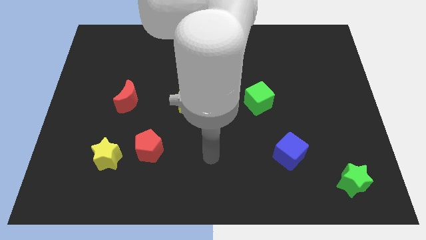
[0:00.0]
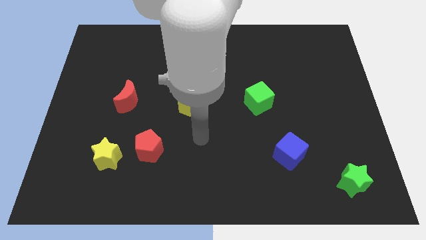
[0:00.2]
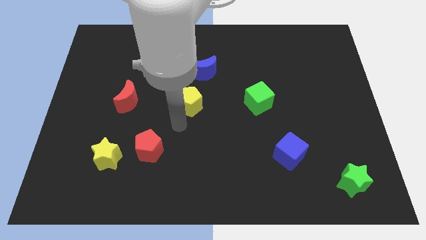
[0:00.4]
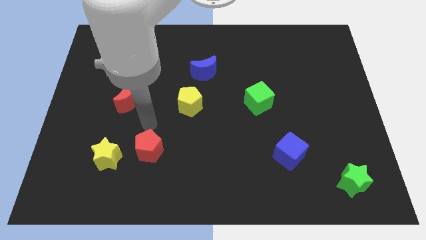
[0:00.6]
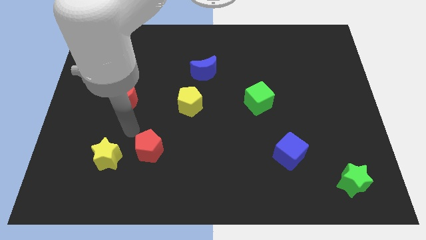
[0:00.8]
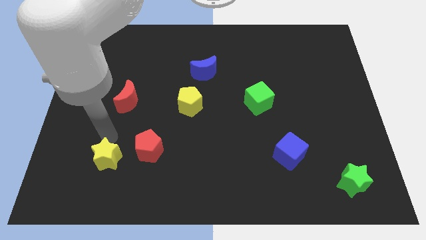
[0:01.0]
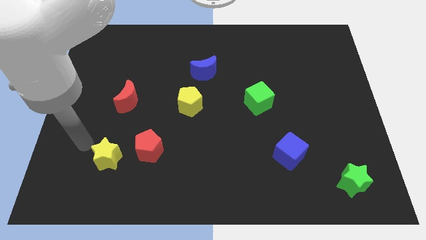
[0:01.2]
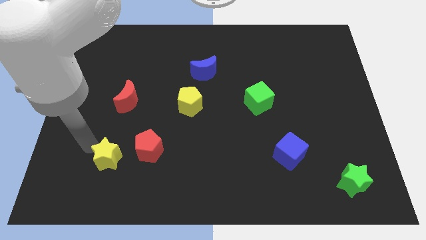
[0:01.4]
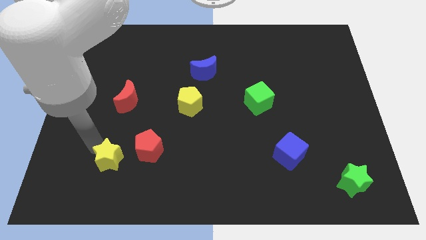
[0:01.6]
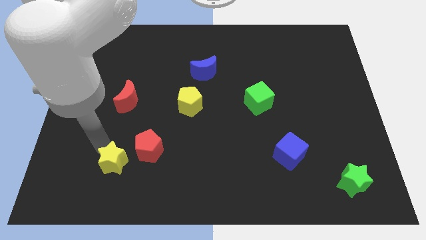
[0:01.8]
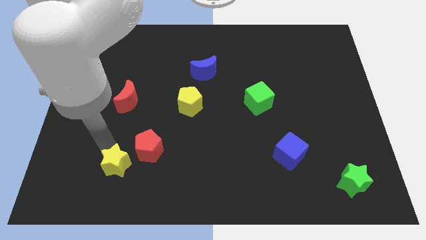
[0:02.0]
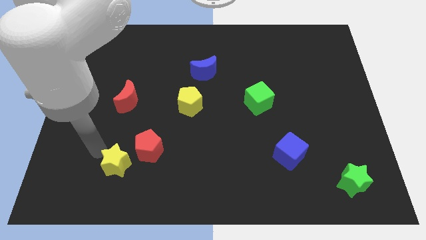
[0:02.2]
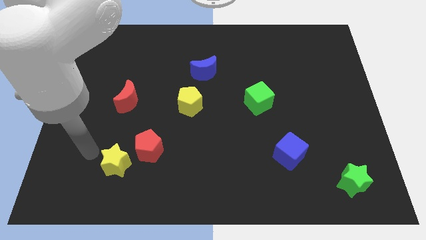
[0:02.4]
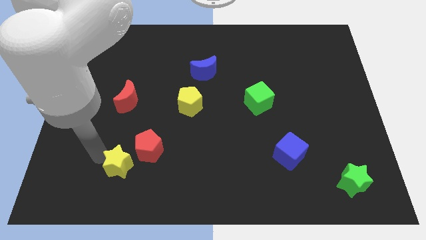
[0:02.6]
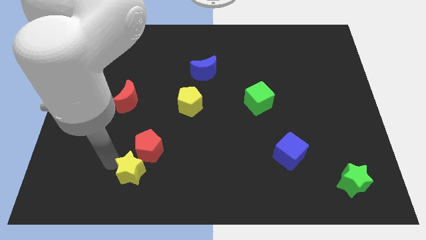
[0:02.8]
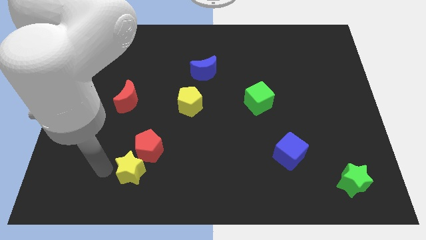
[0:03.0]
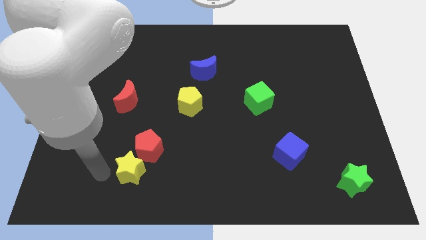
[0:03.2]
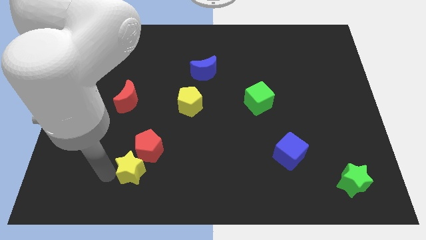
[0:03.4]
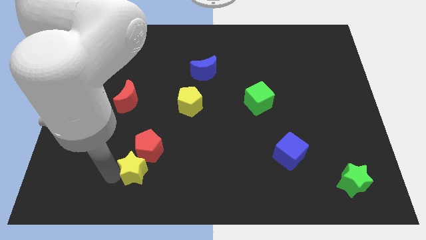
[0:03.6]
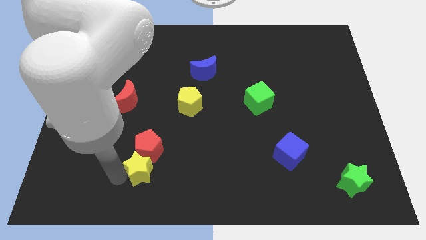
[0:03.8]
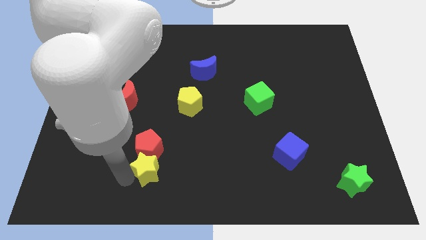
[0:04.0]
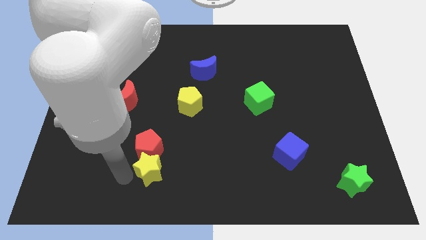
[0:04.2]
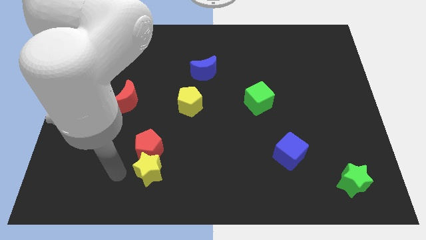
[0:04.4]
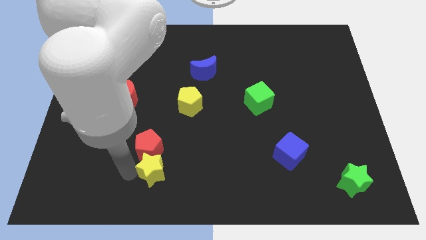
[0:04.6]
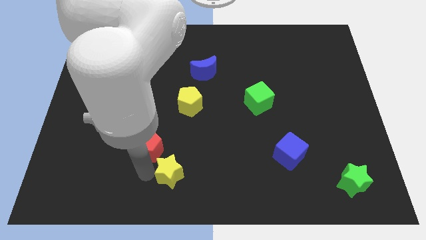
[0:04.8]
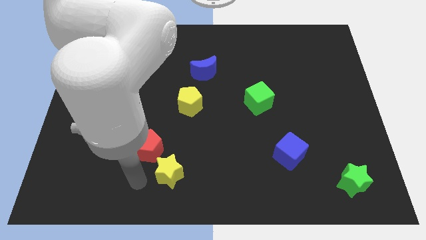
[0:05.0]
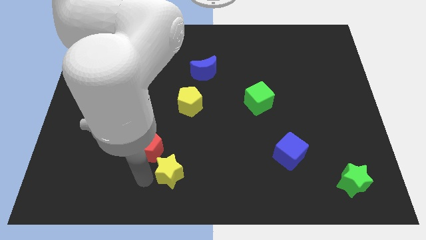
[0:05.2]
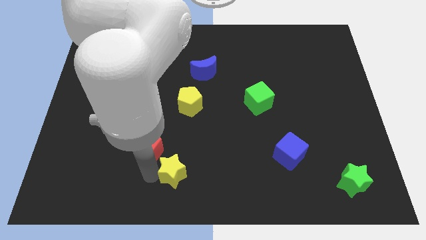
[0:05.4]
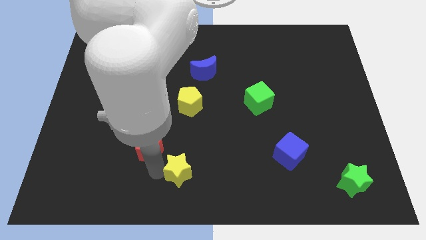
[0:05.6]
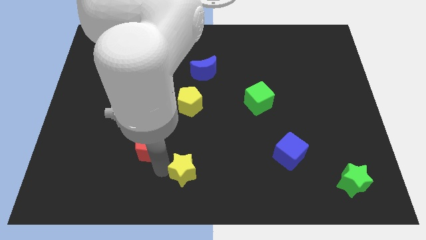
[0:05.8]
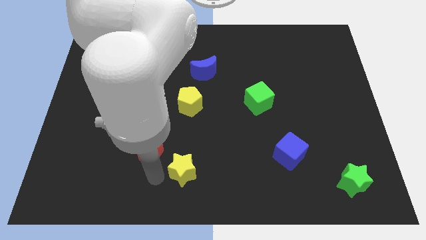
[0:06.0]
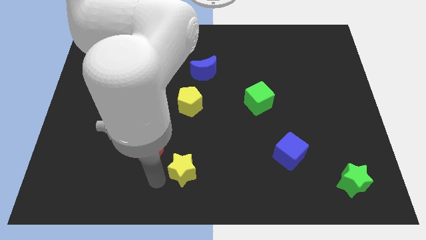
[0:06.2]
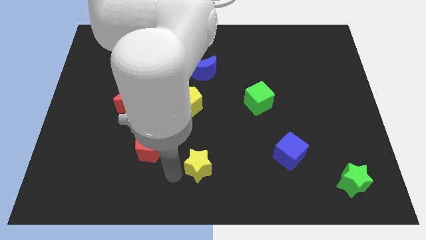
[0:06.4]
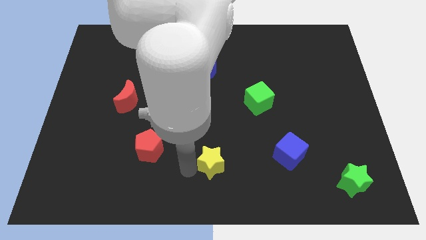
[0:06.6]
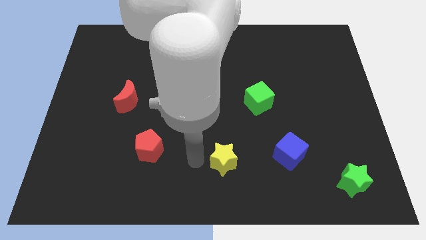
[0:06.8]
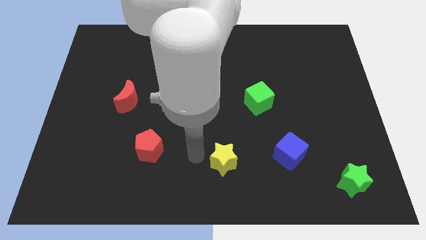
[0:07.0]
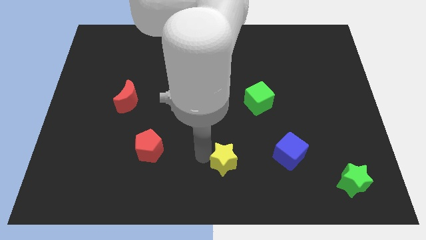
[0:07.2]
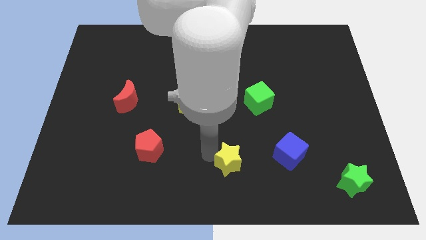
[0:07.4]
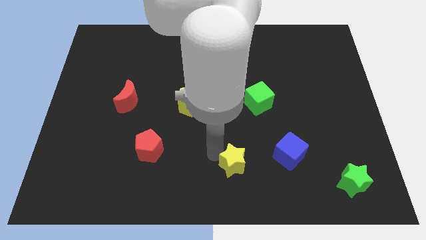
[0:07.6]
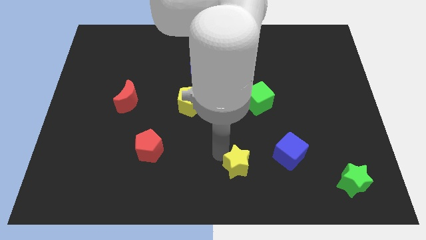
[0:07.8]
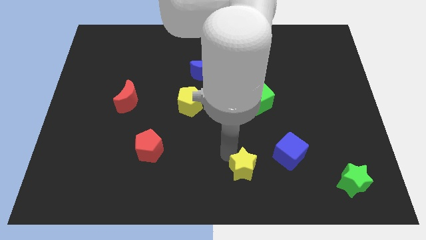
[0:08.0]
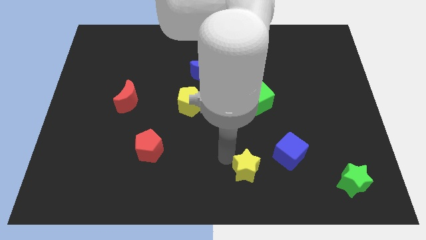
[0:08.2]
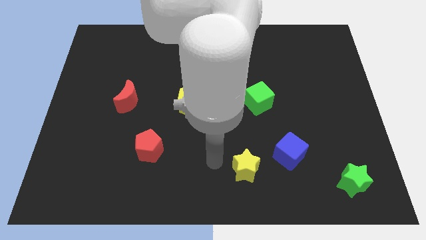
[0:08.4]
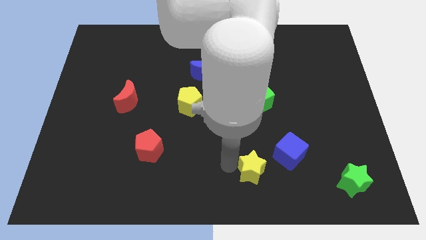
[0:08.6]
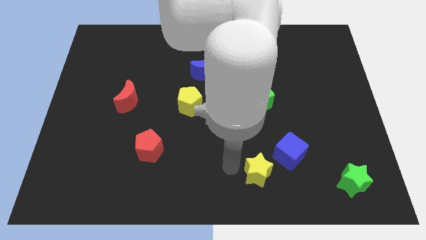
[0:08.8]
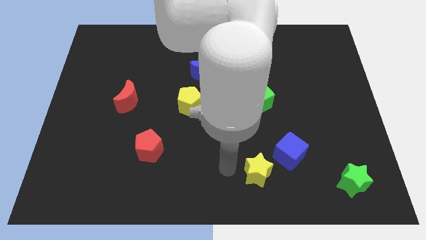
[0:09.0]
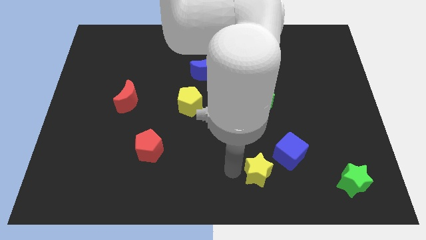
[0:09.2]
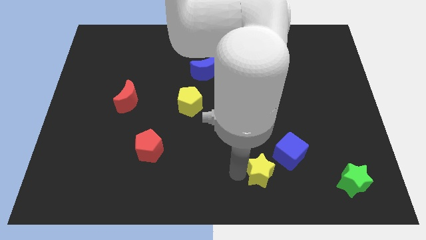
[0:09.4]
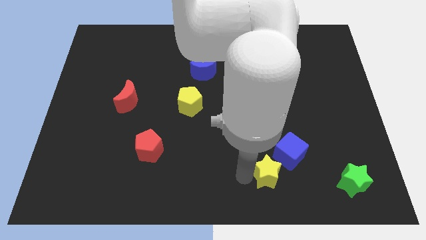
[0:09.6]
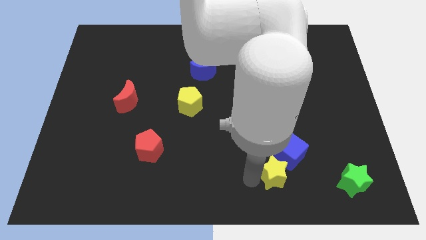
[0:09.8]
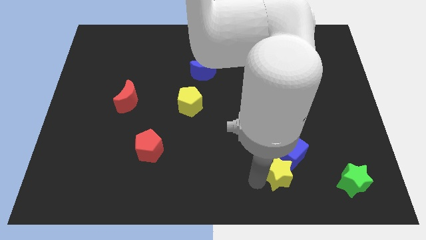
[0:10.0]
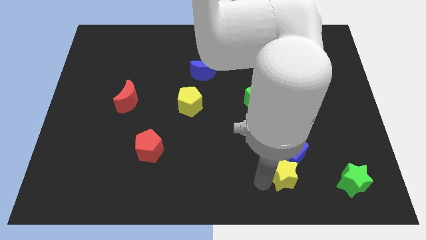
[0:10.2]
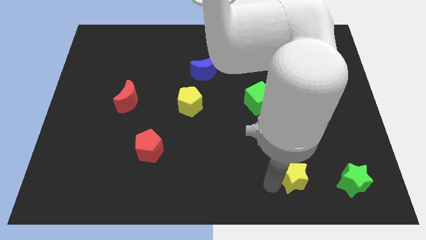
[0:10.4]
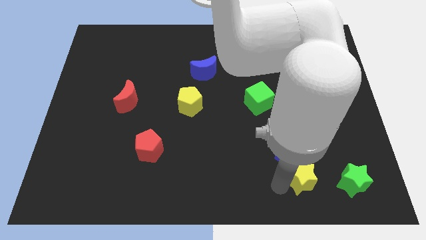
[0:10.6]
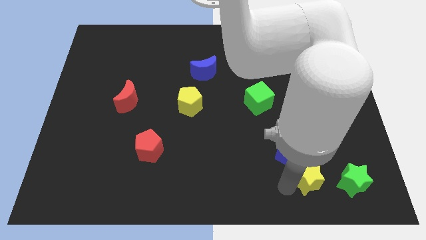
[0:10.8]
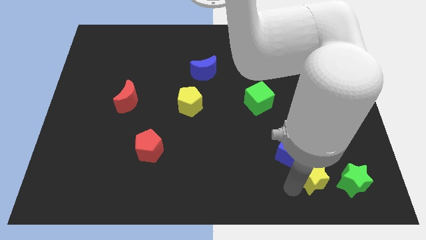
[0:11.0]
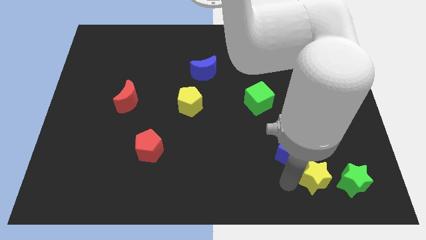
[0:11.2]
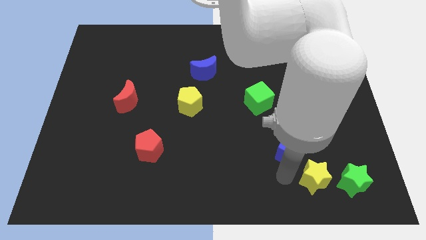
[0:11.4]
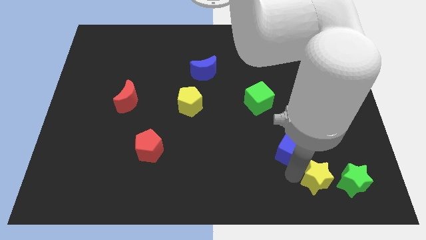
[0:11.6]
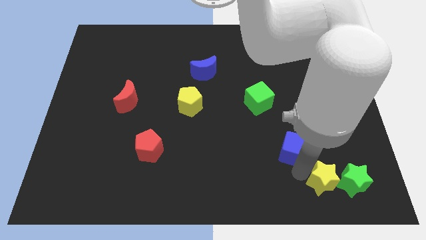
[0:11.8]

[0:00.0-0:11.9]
put the yellow star close to the green star
